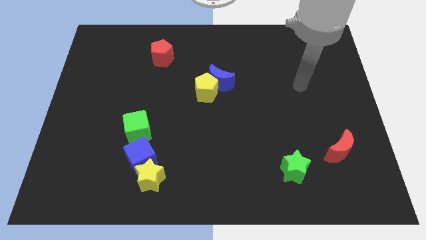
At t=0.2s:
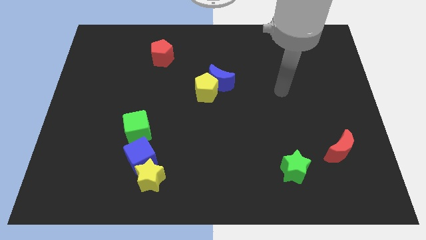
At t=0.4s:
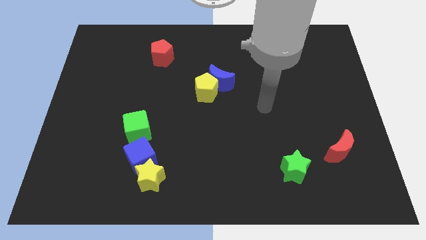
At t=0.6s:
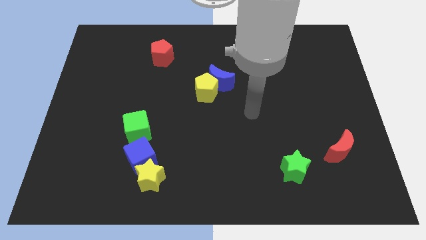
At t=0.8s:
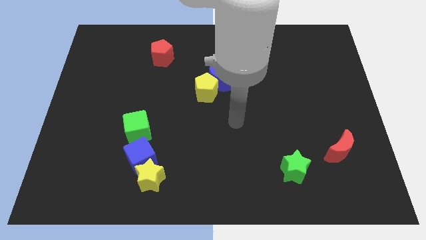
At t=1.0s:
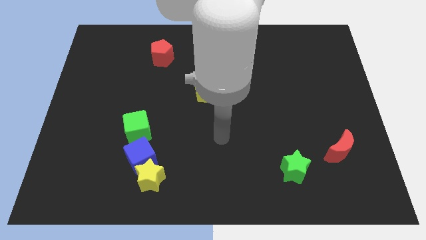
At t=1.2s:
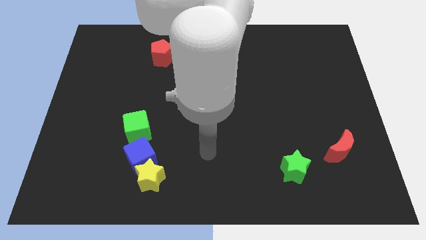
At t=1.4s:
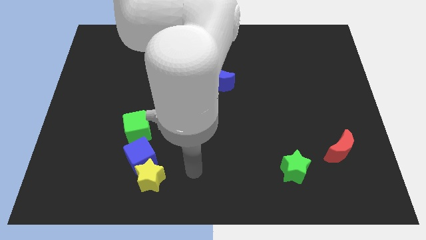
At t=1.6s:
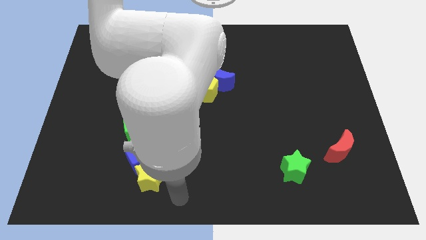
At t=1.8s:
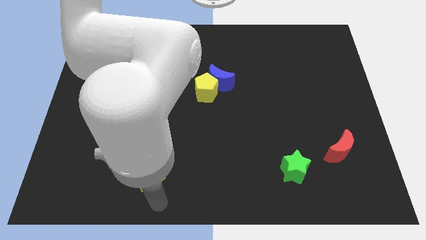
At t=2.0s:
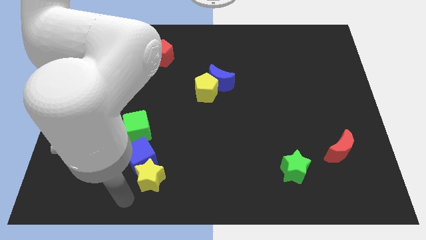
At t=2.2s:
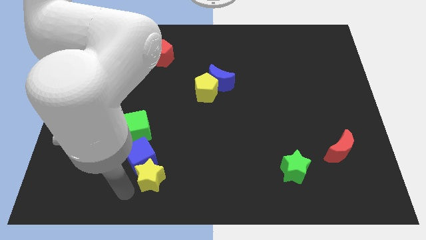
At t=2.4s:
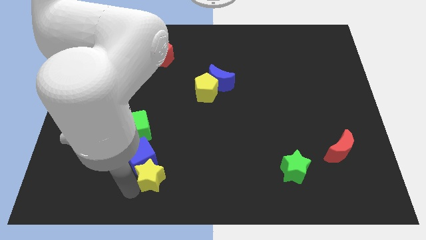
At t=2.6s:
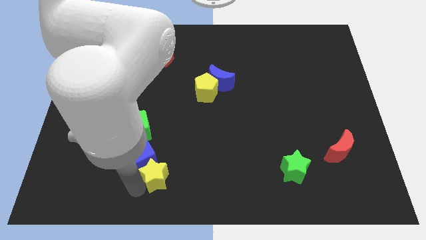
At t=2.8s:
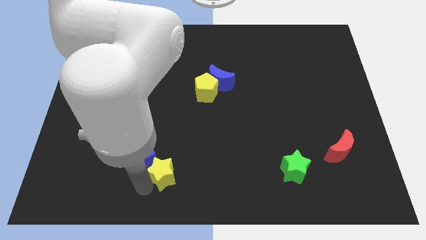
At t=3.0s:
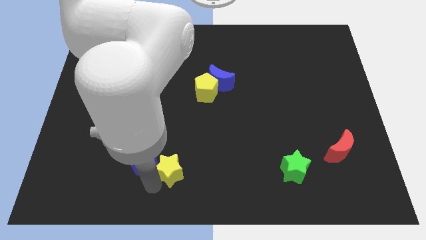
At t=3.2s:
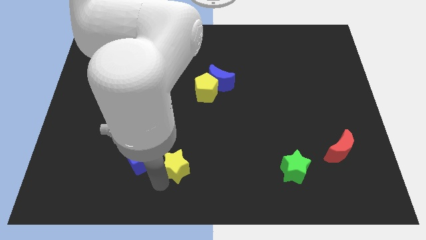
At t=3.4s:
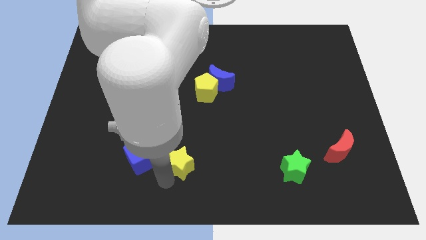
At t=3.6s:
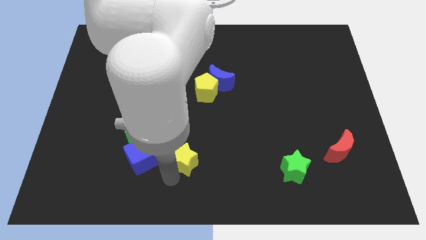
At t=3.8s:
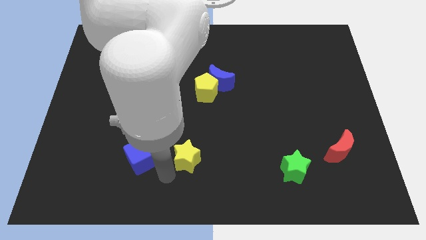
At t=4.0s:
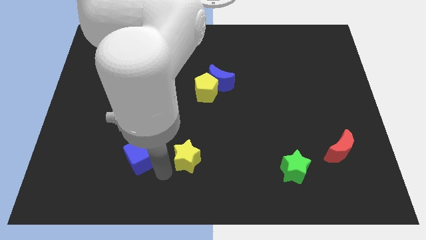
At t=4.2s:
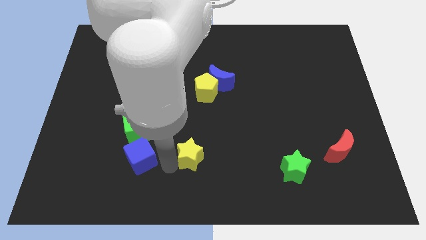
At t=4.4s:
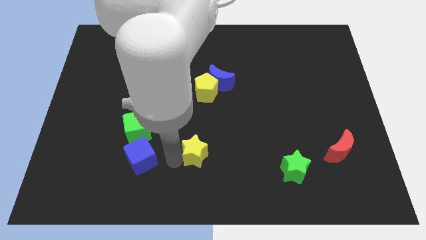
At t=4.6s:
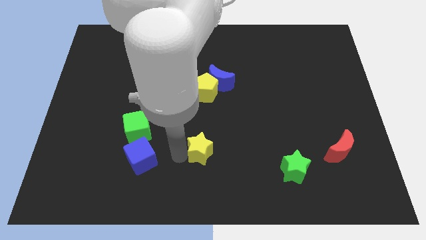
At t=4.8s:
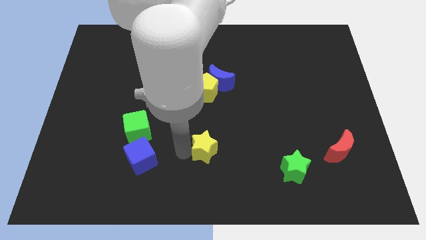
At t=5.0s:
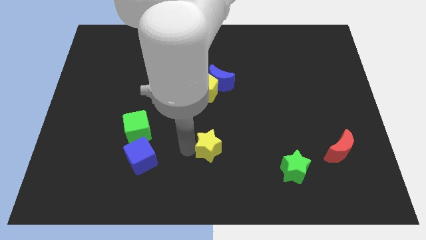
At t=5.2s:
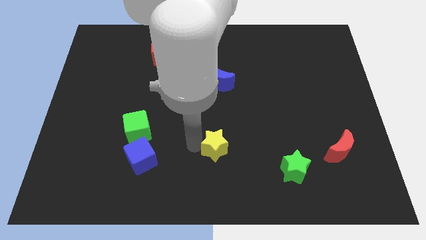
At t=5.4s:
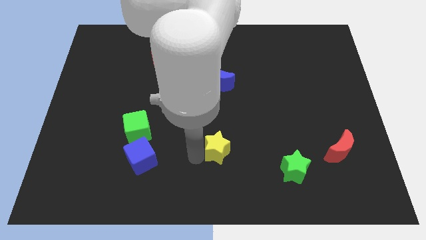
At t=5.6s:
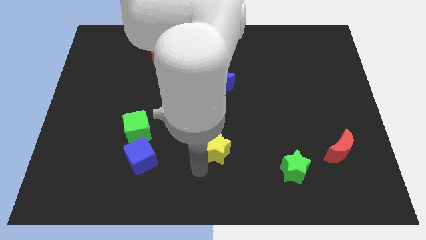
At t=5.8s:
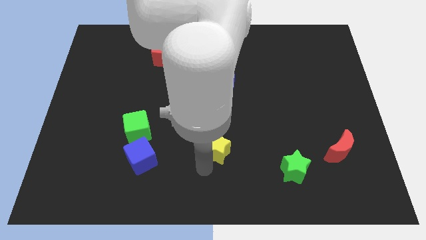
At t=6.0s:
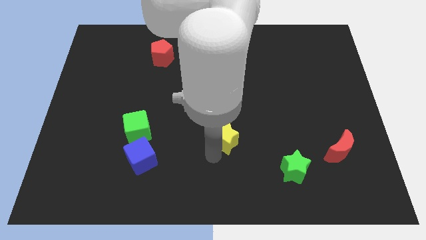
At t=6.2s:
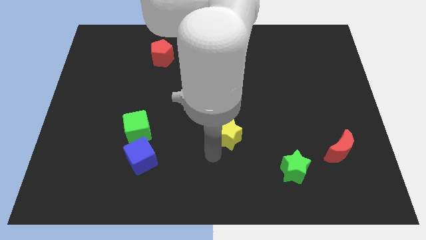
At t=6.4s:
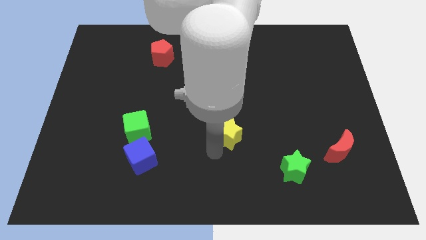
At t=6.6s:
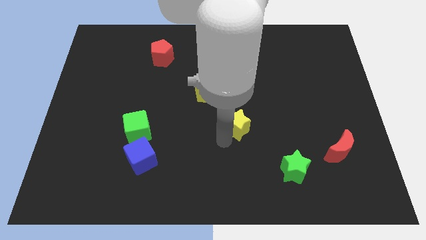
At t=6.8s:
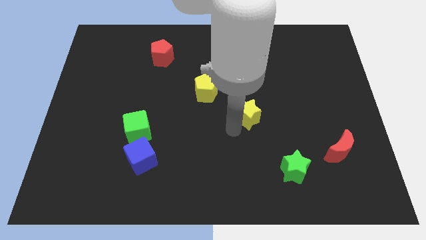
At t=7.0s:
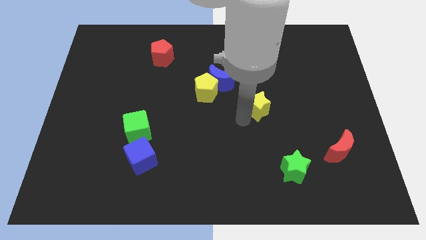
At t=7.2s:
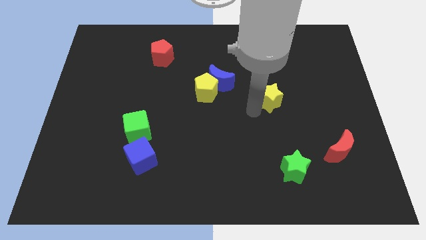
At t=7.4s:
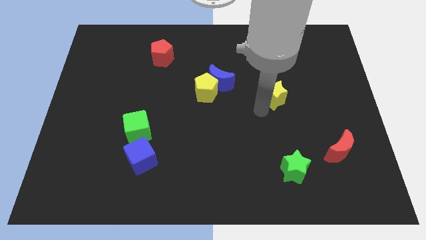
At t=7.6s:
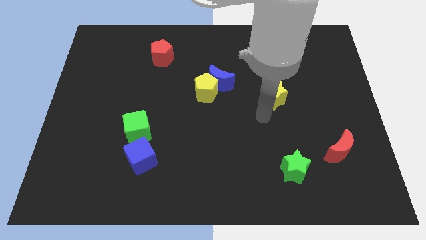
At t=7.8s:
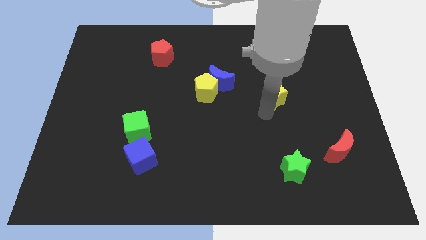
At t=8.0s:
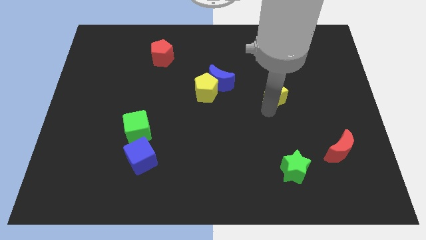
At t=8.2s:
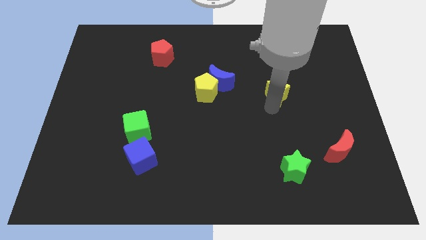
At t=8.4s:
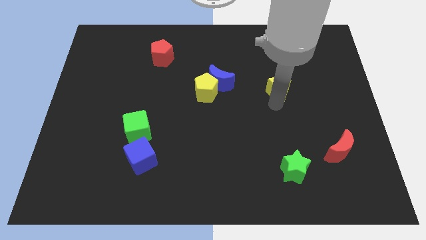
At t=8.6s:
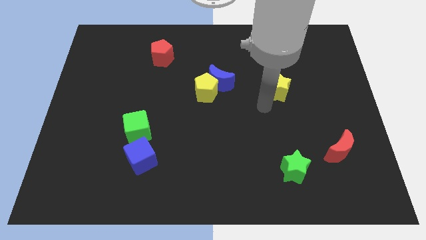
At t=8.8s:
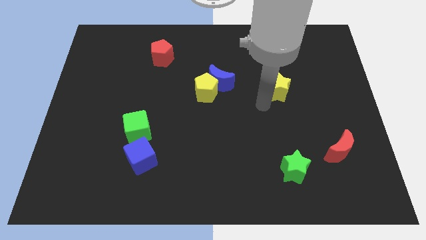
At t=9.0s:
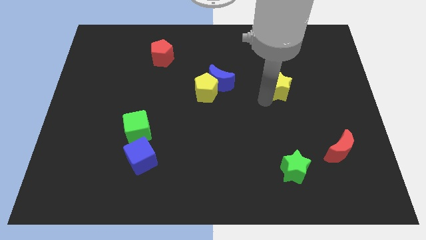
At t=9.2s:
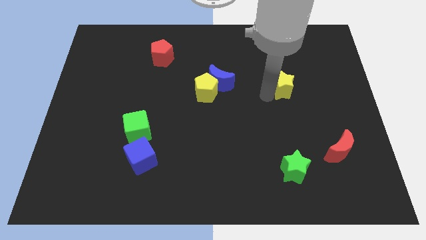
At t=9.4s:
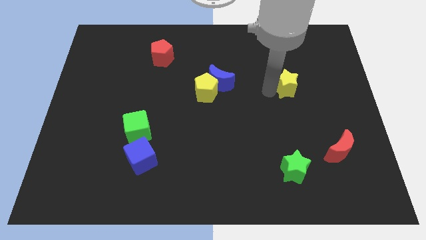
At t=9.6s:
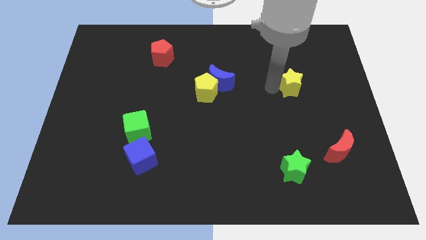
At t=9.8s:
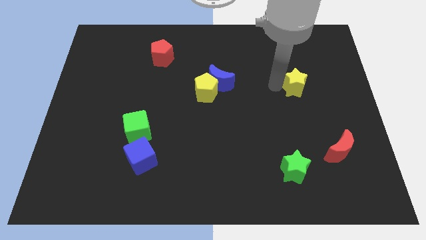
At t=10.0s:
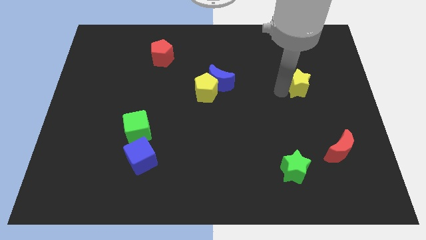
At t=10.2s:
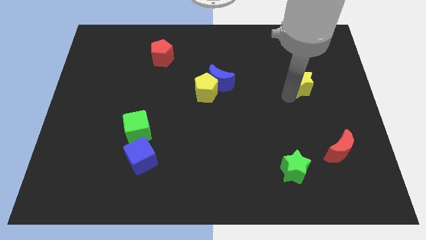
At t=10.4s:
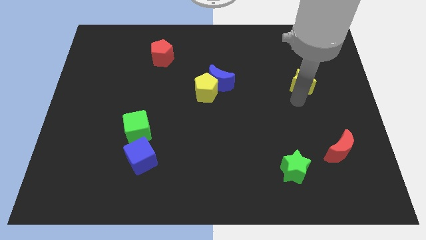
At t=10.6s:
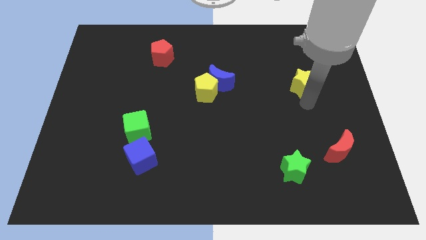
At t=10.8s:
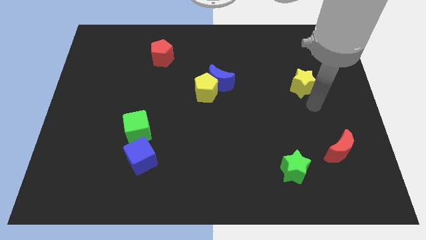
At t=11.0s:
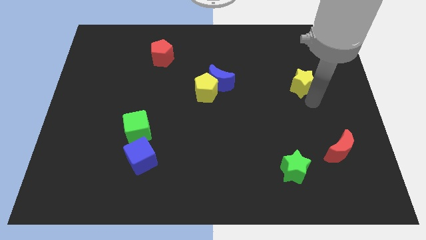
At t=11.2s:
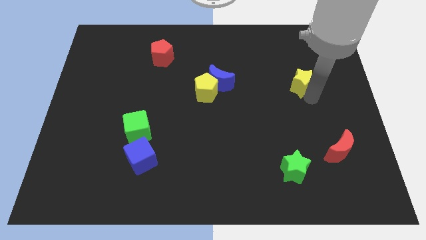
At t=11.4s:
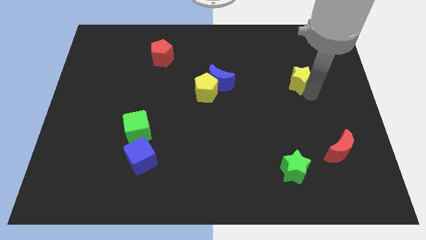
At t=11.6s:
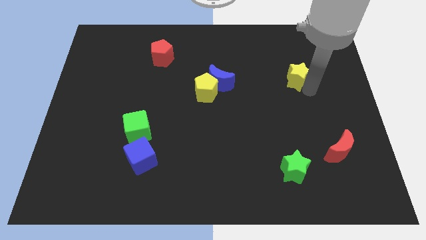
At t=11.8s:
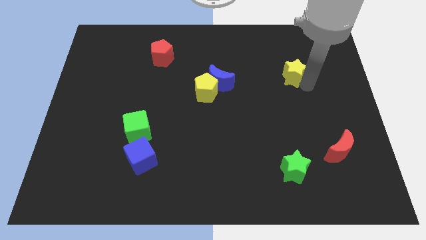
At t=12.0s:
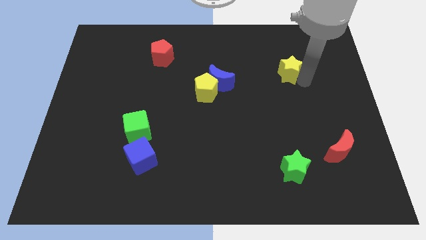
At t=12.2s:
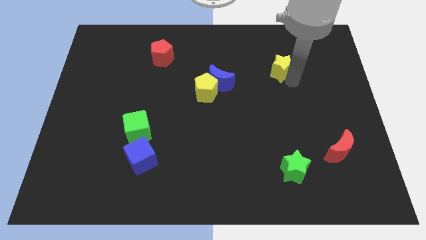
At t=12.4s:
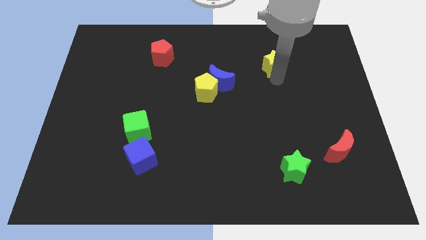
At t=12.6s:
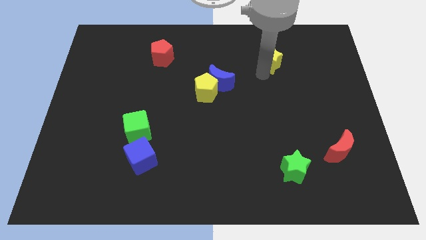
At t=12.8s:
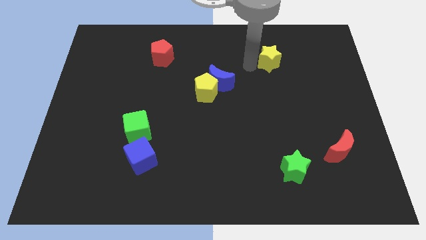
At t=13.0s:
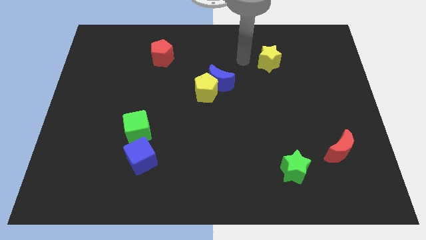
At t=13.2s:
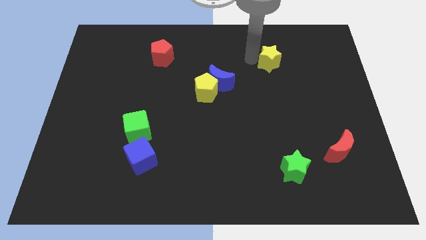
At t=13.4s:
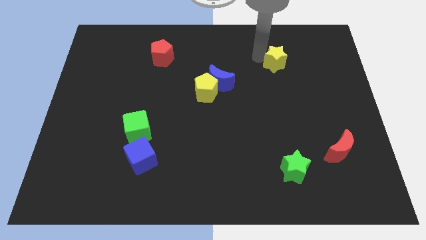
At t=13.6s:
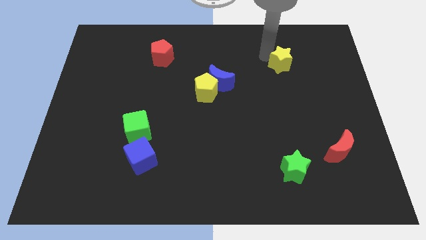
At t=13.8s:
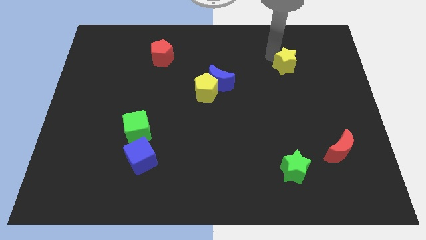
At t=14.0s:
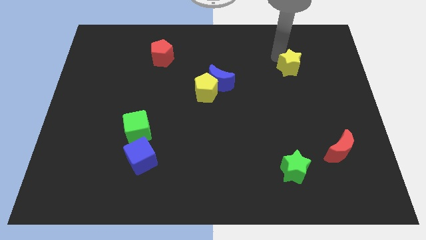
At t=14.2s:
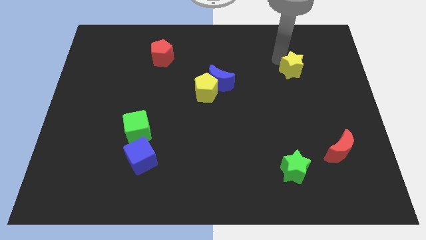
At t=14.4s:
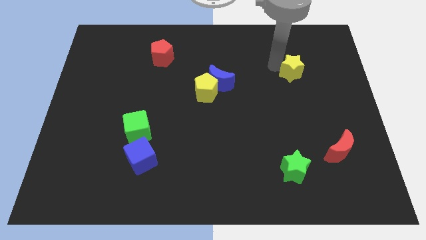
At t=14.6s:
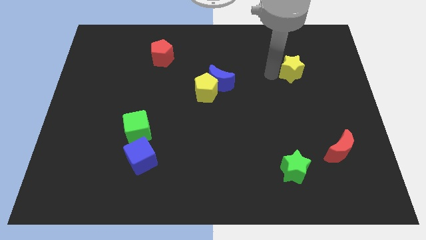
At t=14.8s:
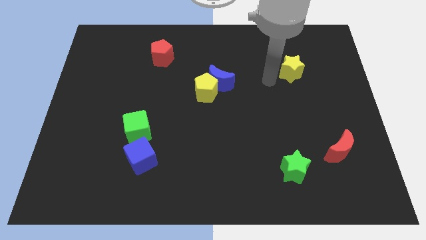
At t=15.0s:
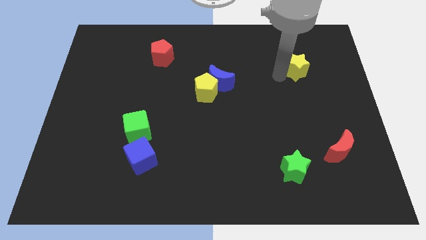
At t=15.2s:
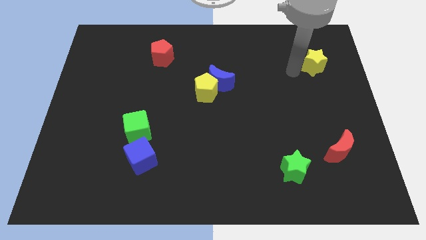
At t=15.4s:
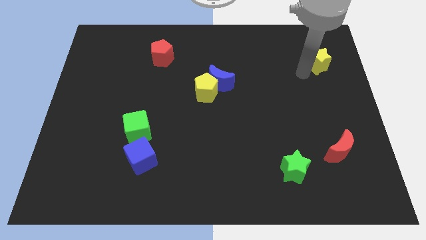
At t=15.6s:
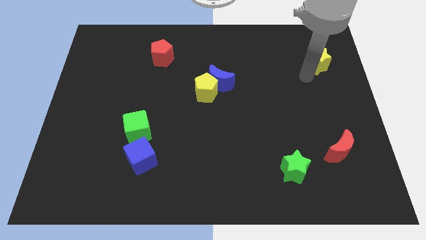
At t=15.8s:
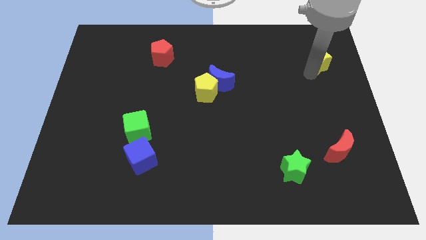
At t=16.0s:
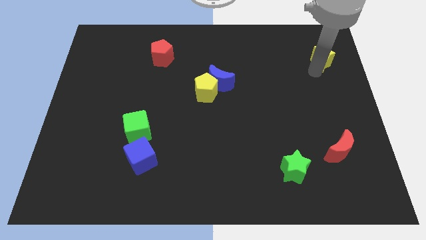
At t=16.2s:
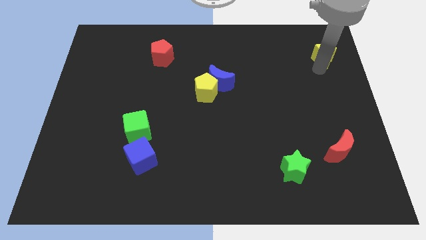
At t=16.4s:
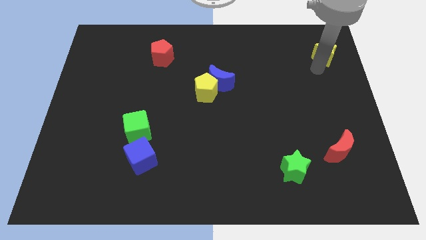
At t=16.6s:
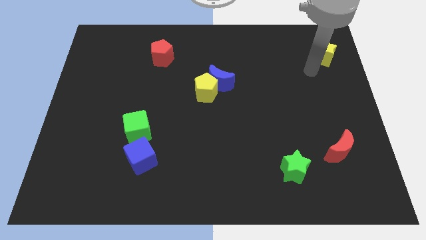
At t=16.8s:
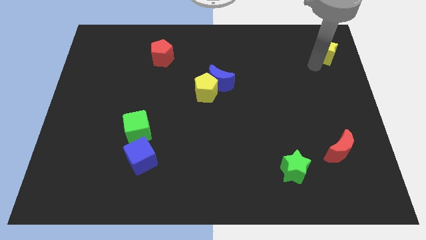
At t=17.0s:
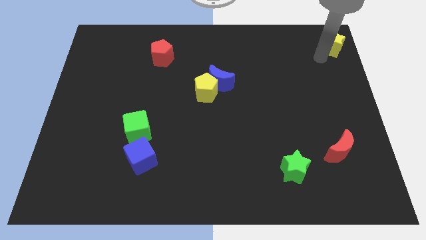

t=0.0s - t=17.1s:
put the yellow star to the top right of the board
